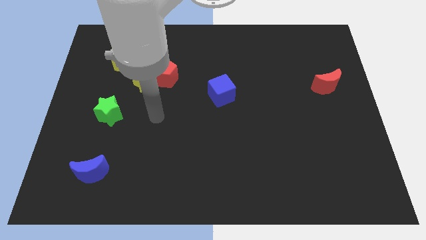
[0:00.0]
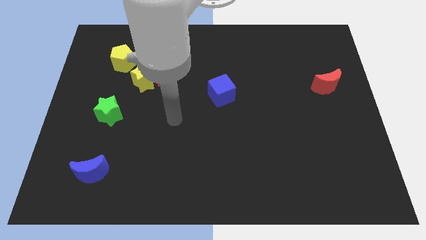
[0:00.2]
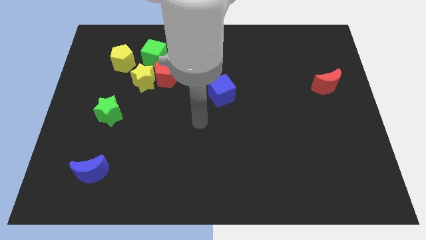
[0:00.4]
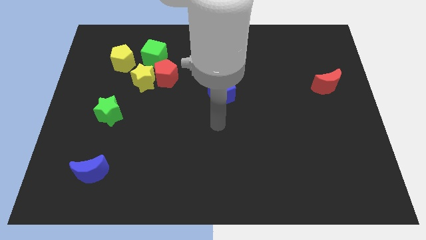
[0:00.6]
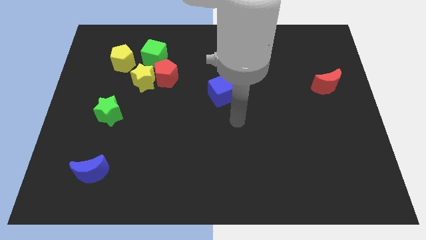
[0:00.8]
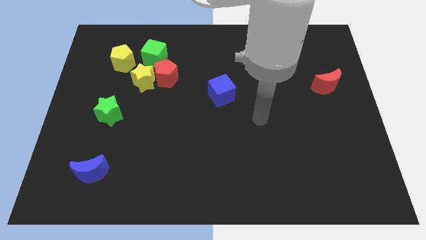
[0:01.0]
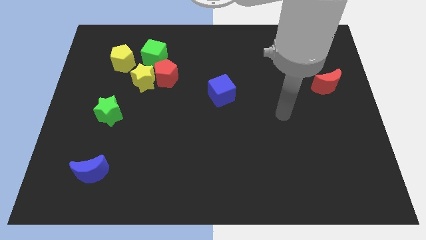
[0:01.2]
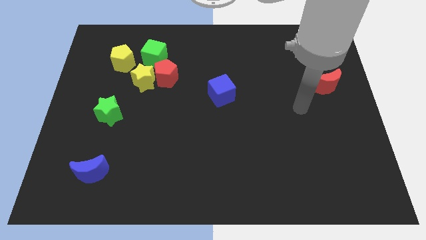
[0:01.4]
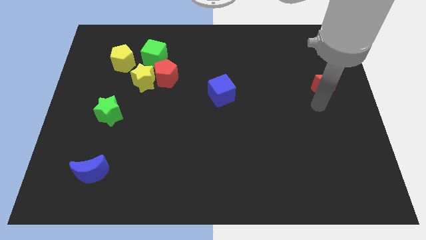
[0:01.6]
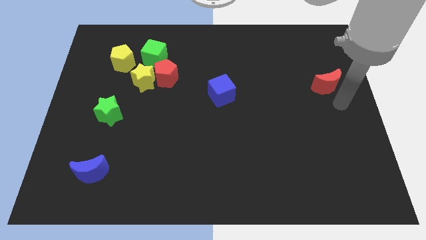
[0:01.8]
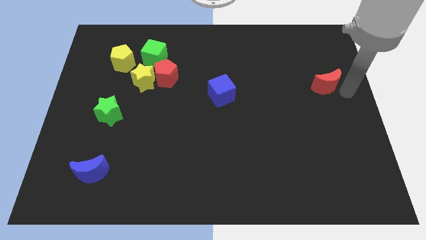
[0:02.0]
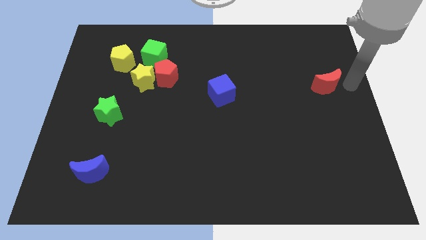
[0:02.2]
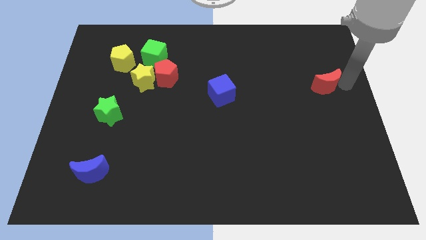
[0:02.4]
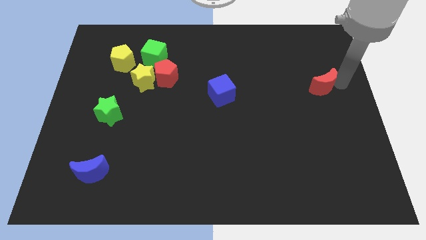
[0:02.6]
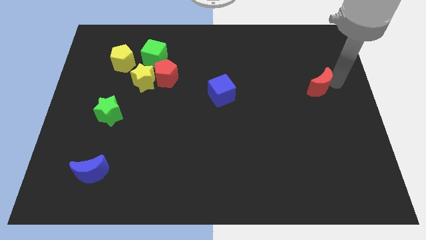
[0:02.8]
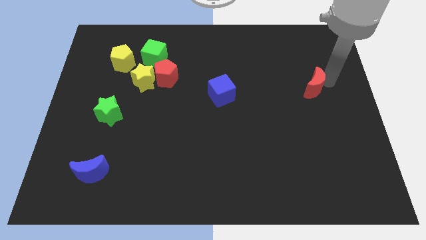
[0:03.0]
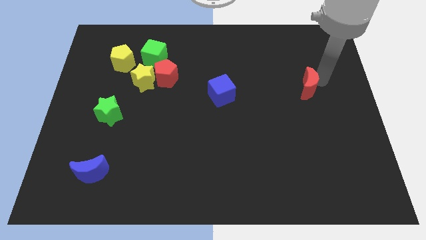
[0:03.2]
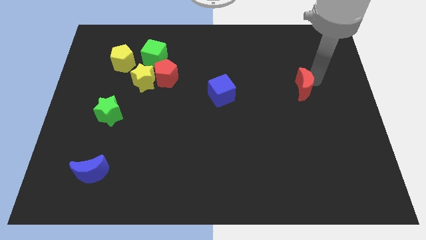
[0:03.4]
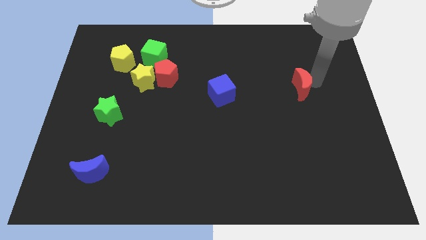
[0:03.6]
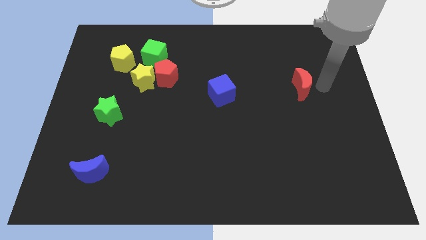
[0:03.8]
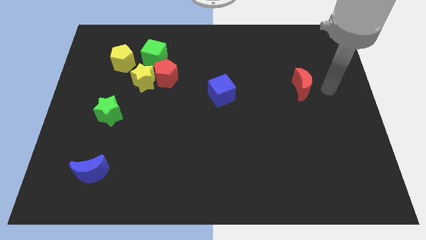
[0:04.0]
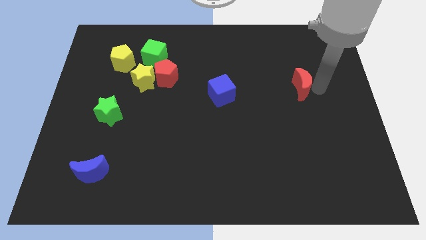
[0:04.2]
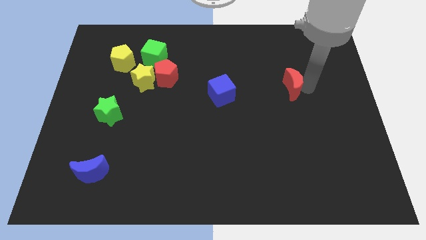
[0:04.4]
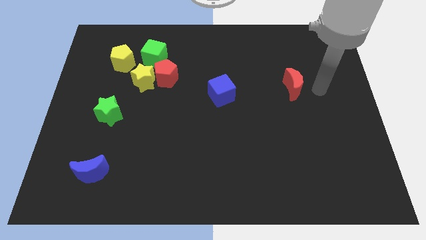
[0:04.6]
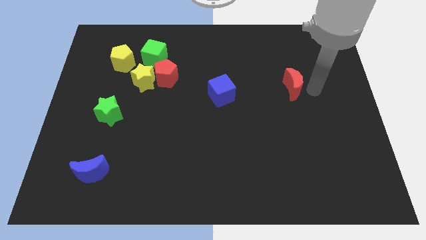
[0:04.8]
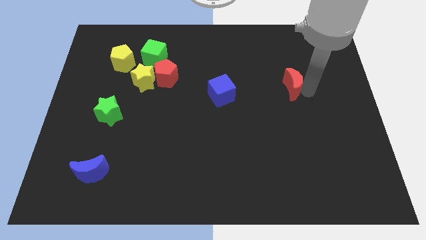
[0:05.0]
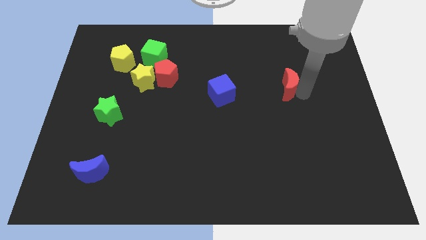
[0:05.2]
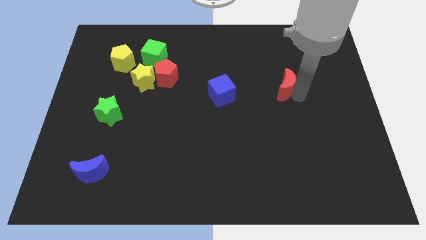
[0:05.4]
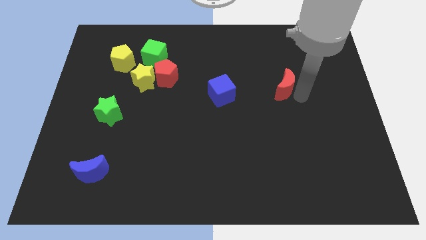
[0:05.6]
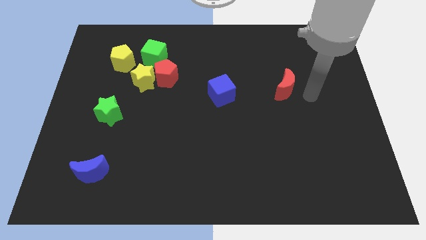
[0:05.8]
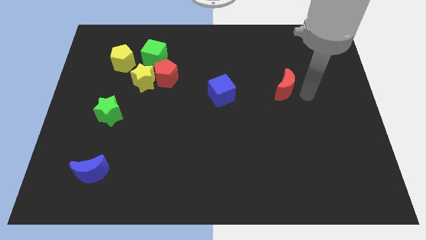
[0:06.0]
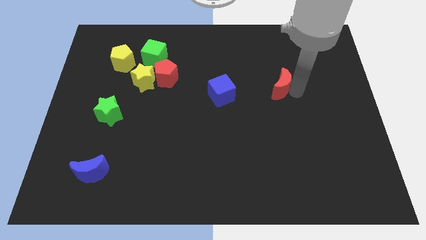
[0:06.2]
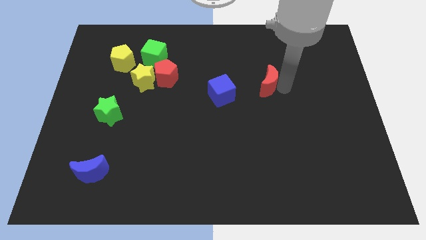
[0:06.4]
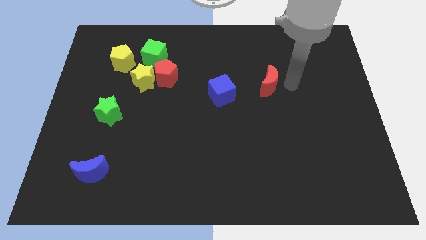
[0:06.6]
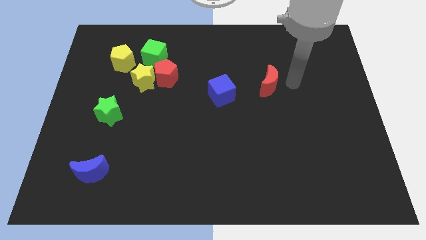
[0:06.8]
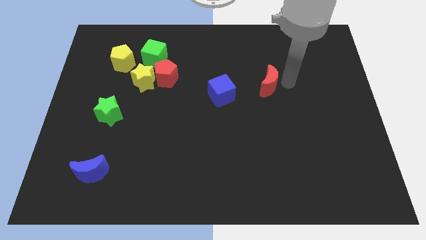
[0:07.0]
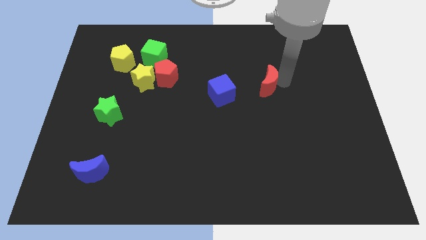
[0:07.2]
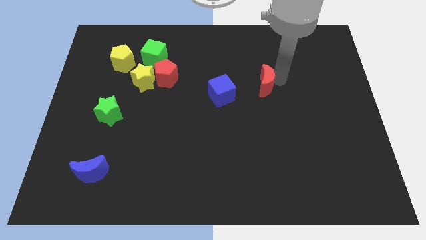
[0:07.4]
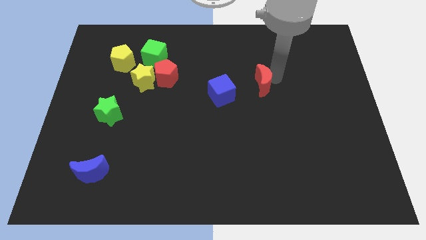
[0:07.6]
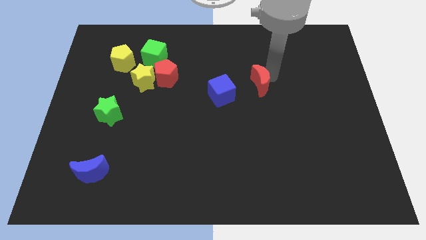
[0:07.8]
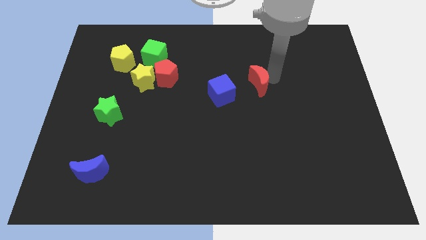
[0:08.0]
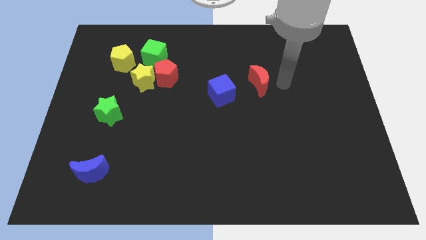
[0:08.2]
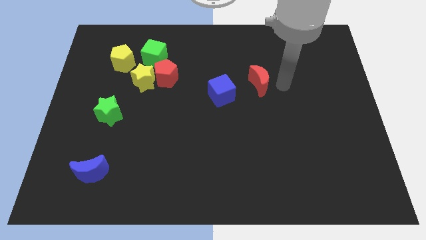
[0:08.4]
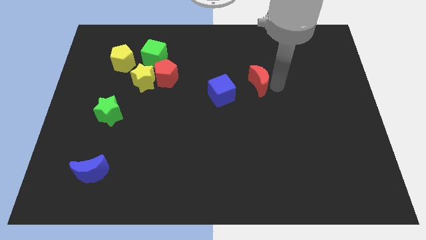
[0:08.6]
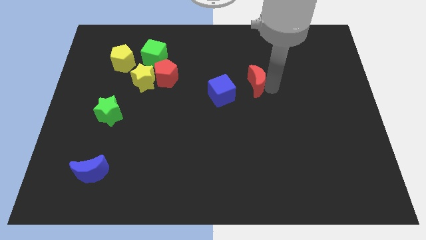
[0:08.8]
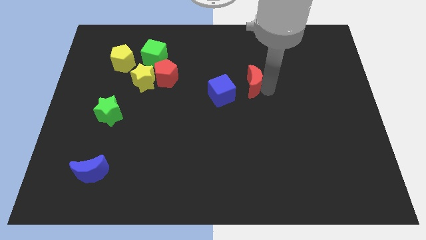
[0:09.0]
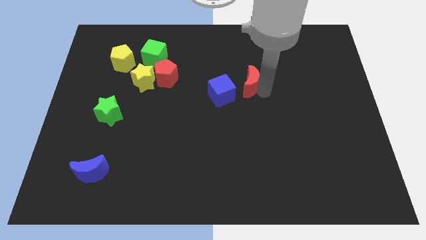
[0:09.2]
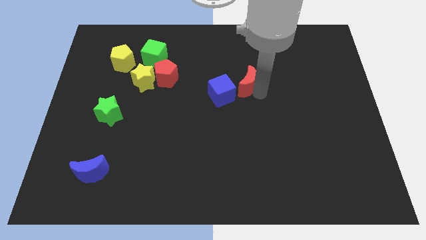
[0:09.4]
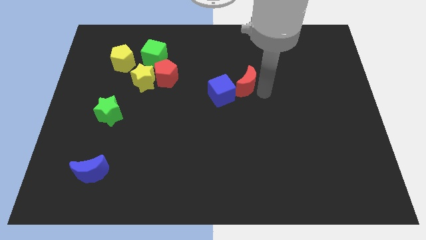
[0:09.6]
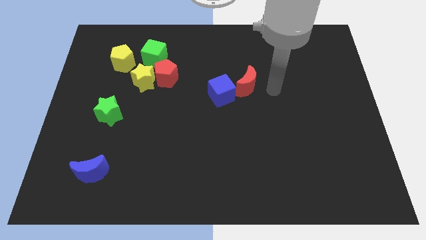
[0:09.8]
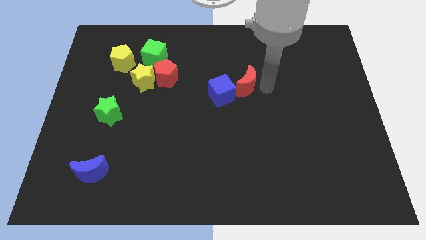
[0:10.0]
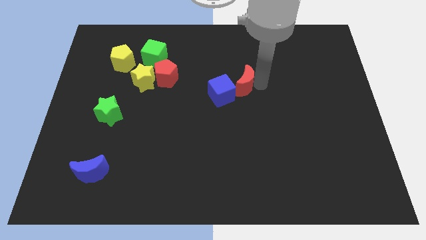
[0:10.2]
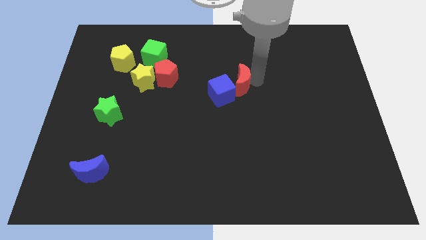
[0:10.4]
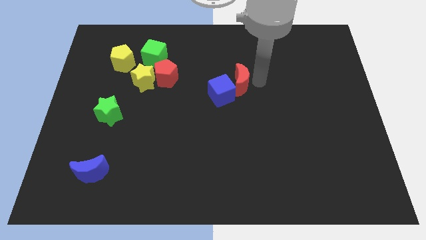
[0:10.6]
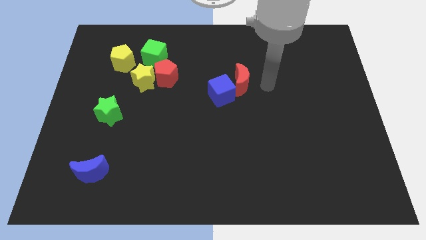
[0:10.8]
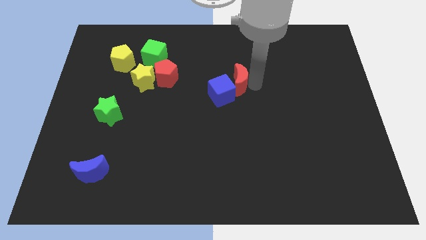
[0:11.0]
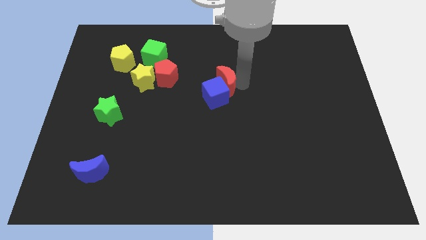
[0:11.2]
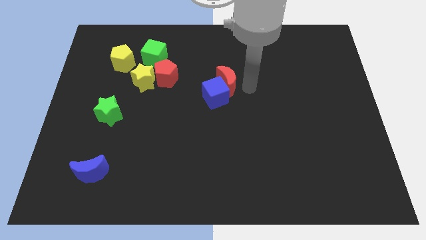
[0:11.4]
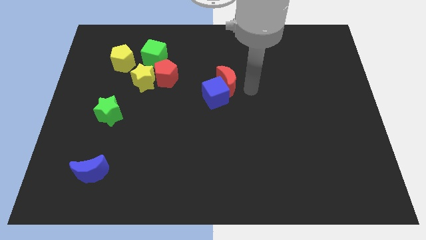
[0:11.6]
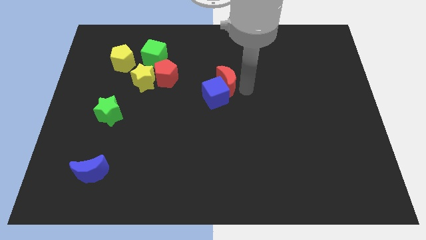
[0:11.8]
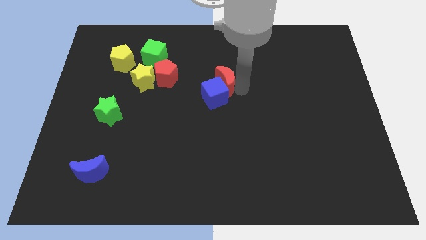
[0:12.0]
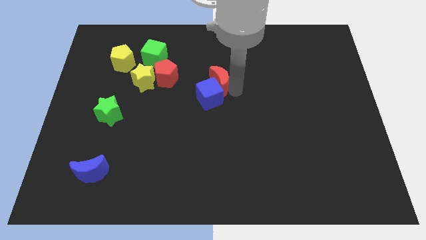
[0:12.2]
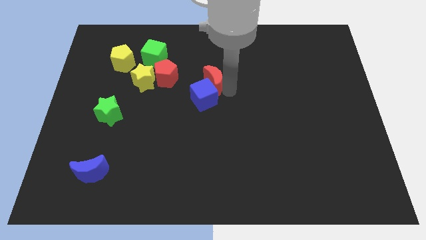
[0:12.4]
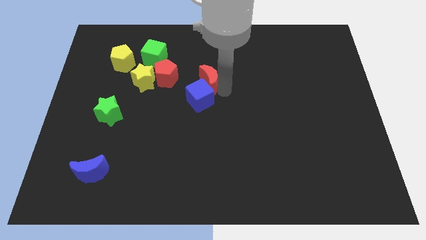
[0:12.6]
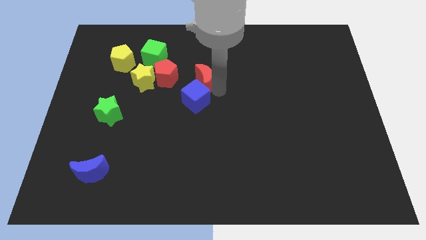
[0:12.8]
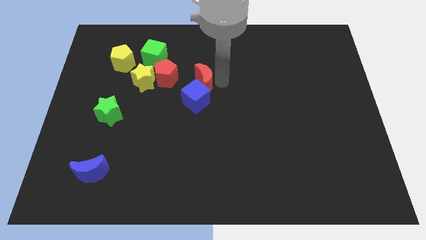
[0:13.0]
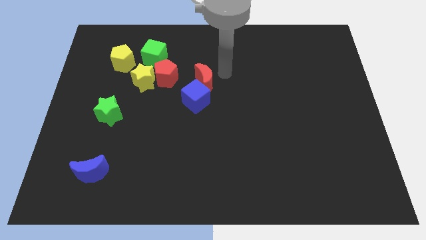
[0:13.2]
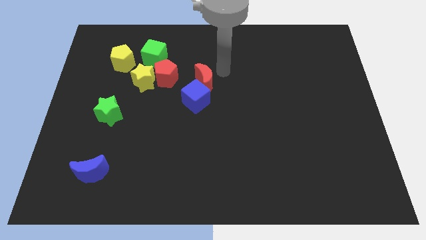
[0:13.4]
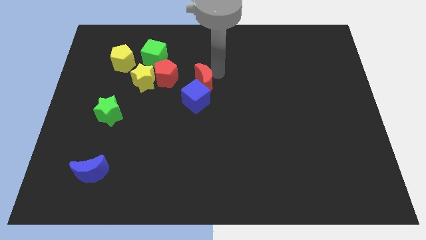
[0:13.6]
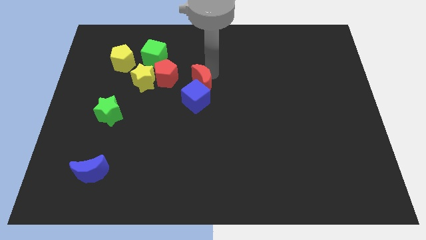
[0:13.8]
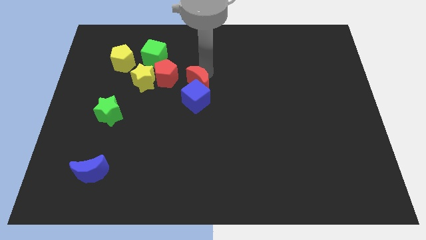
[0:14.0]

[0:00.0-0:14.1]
put the red moon diagonally down and to the right of the red pentagon
